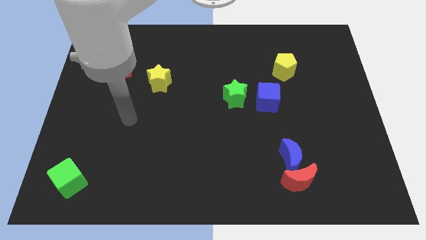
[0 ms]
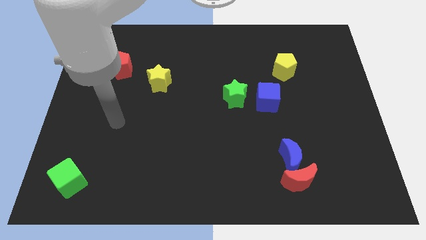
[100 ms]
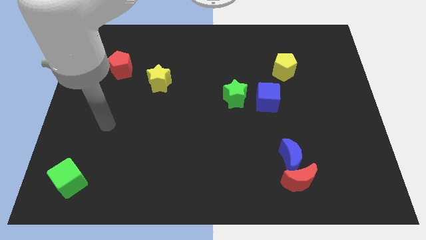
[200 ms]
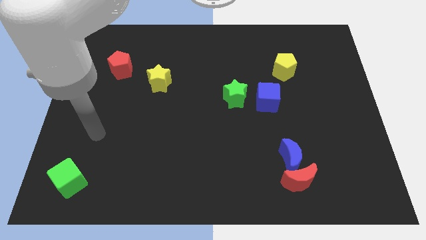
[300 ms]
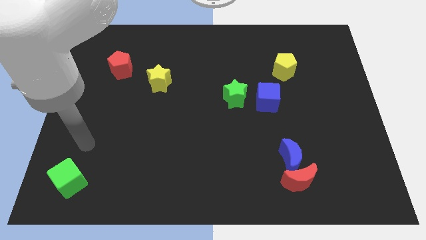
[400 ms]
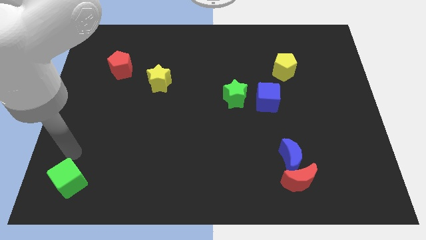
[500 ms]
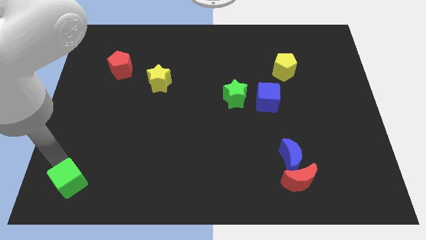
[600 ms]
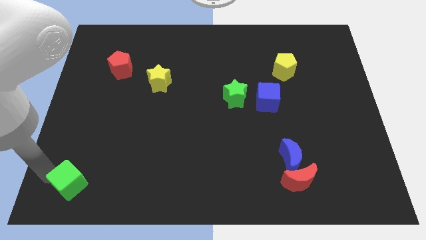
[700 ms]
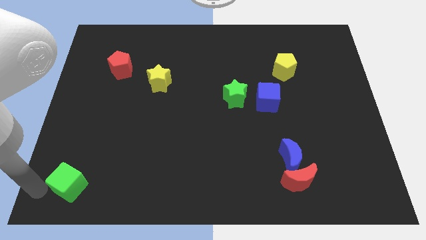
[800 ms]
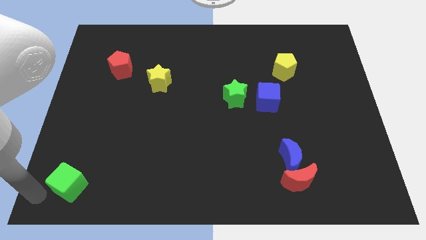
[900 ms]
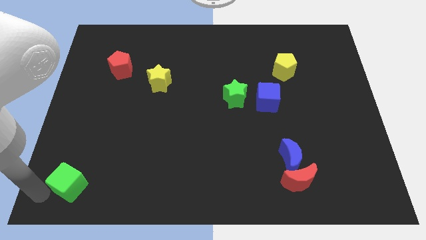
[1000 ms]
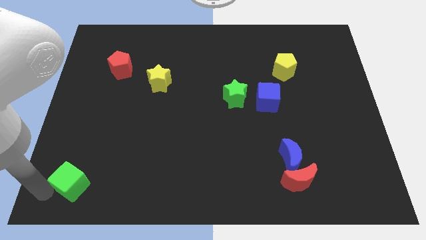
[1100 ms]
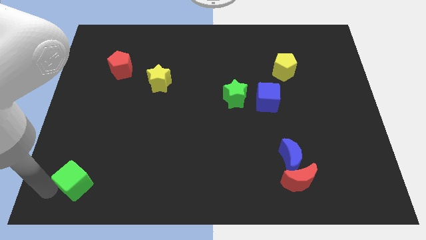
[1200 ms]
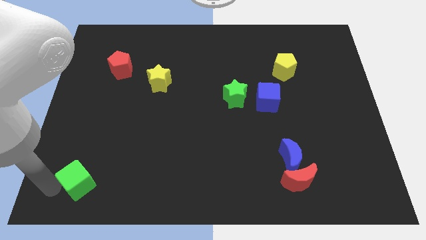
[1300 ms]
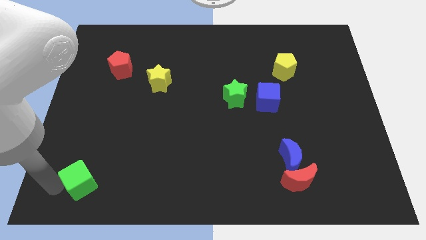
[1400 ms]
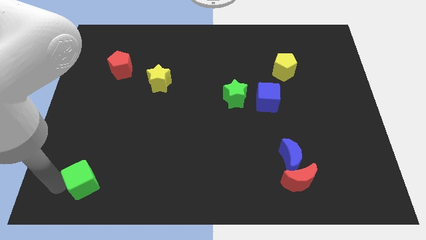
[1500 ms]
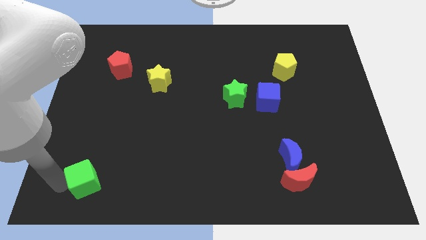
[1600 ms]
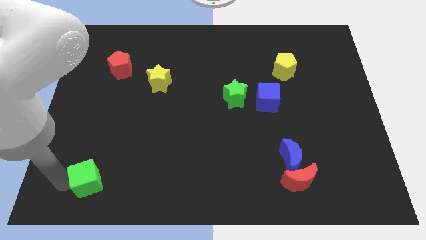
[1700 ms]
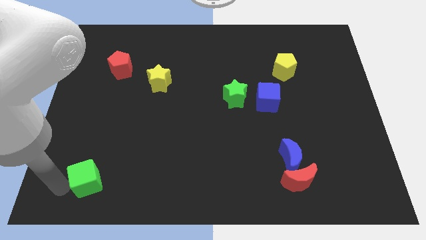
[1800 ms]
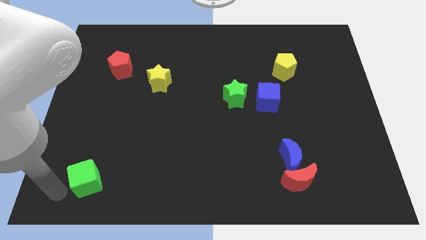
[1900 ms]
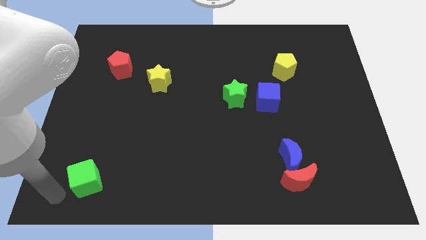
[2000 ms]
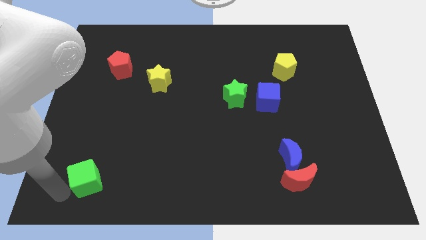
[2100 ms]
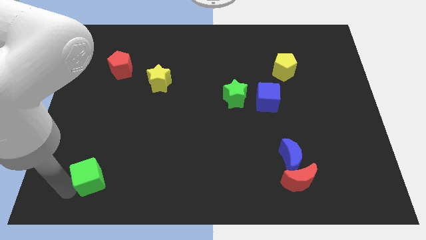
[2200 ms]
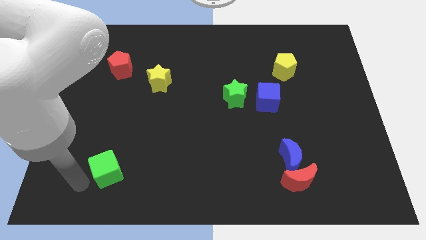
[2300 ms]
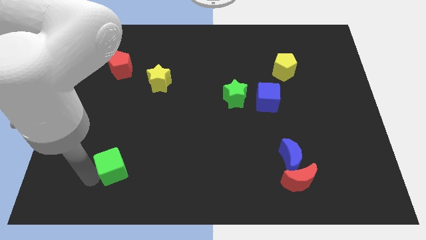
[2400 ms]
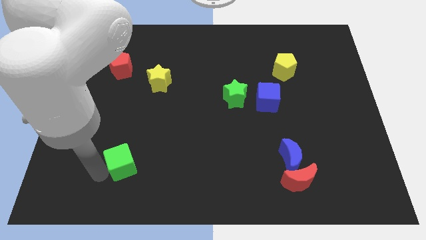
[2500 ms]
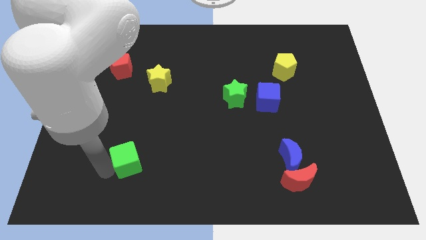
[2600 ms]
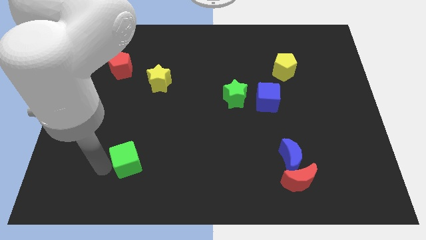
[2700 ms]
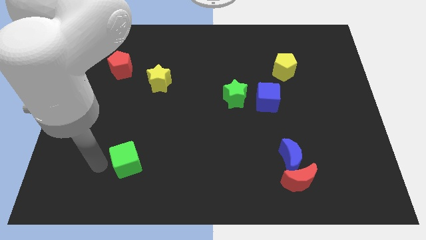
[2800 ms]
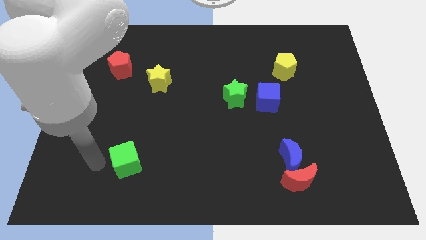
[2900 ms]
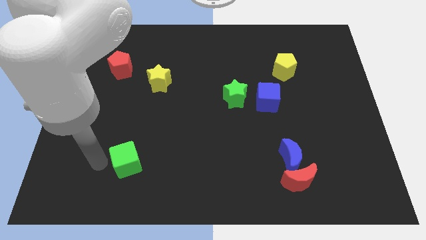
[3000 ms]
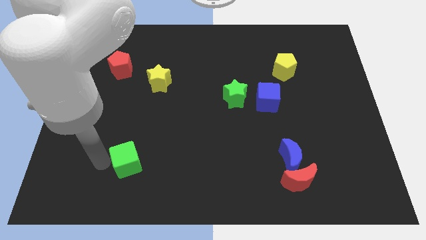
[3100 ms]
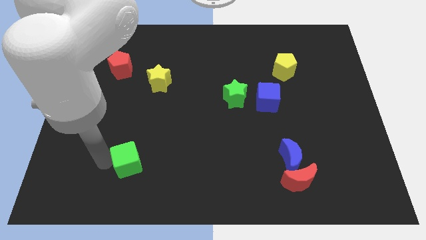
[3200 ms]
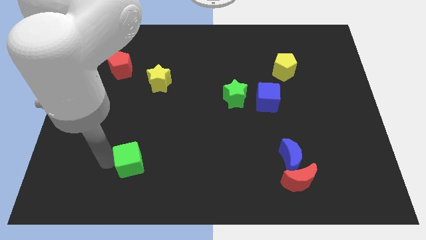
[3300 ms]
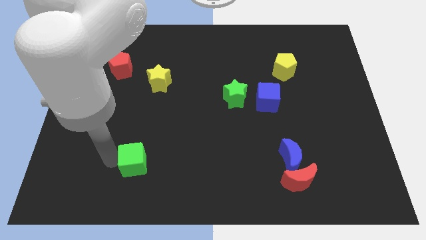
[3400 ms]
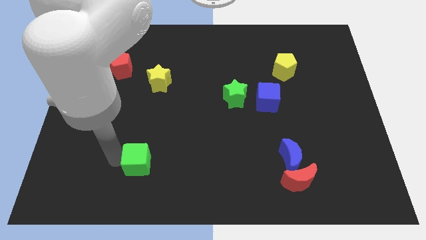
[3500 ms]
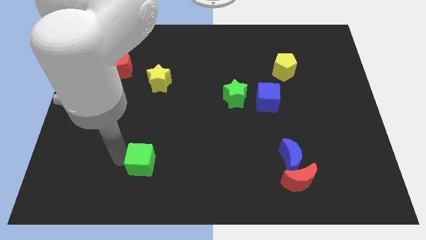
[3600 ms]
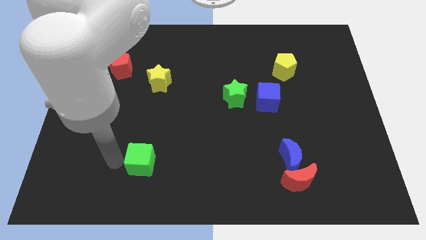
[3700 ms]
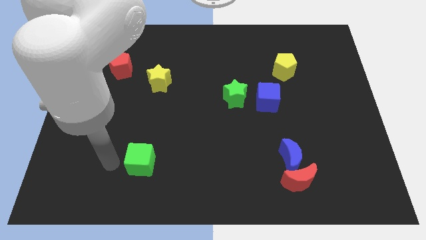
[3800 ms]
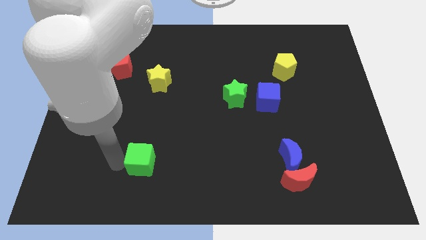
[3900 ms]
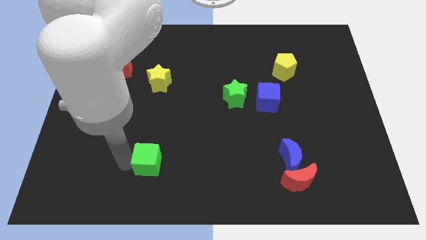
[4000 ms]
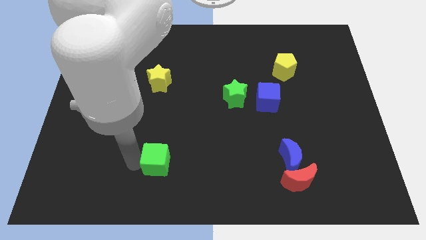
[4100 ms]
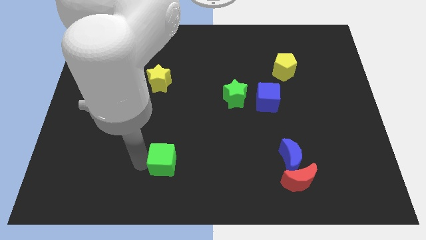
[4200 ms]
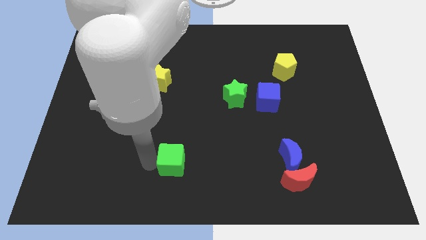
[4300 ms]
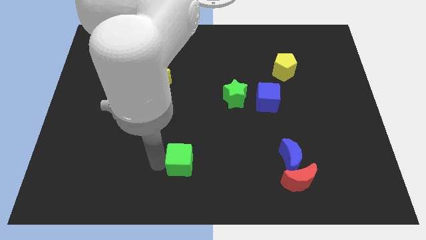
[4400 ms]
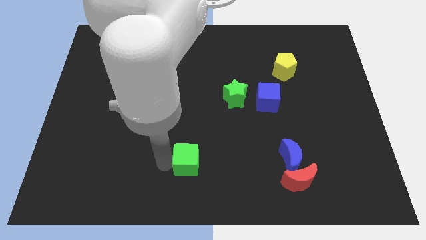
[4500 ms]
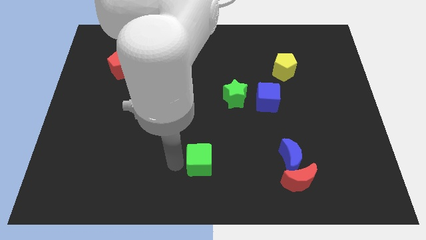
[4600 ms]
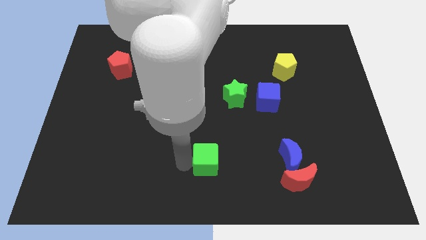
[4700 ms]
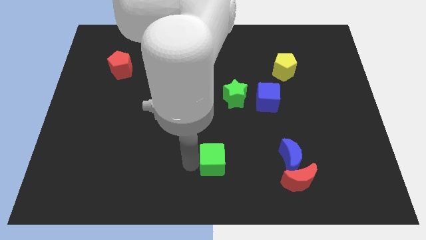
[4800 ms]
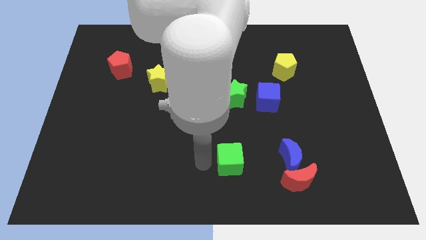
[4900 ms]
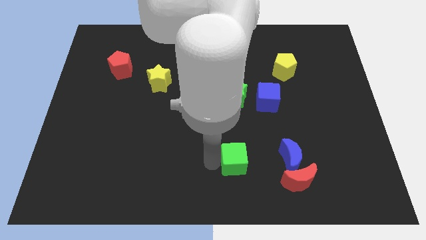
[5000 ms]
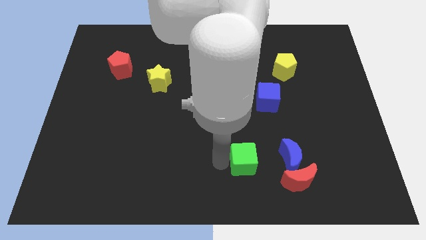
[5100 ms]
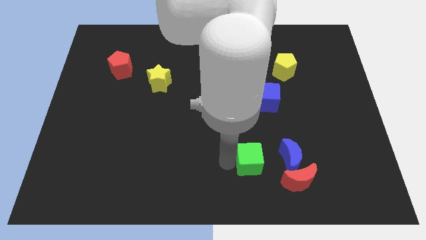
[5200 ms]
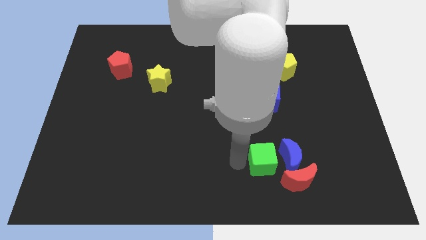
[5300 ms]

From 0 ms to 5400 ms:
move the green cube close to the blue moon

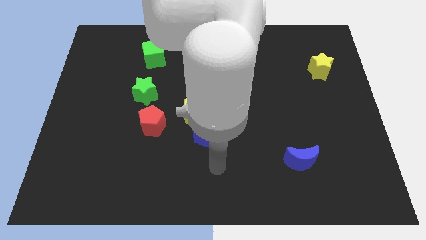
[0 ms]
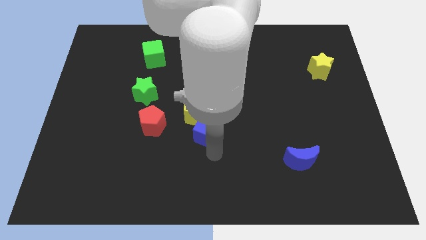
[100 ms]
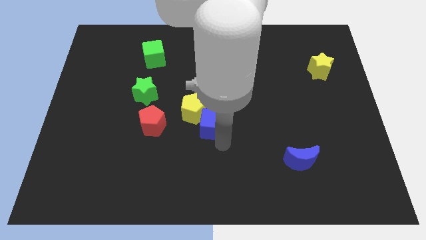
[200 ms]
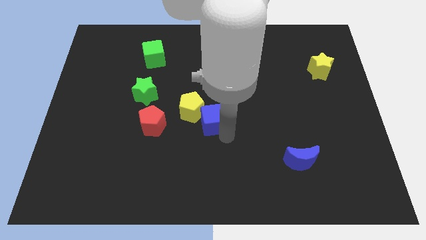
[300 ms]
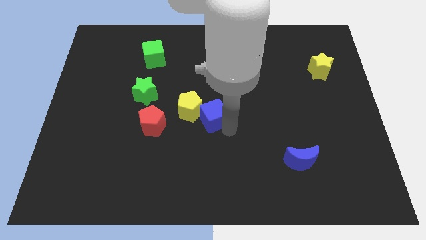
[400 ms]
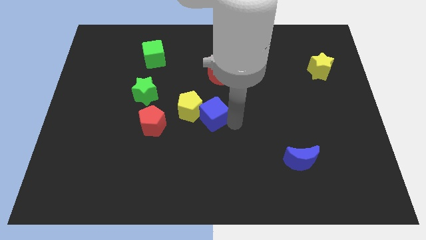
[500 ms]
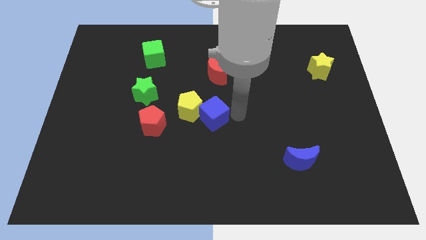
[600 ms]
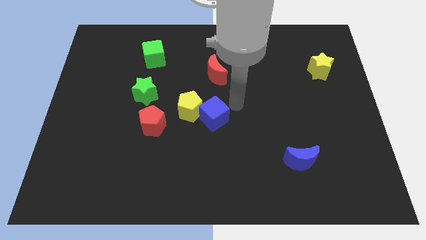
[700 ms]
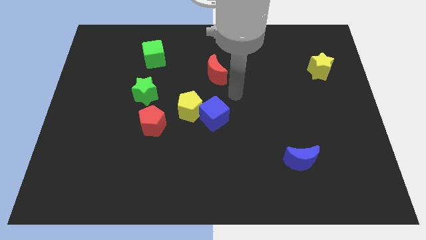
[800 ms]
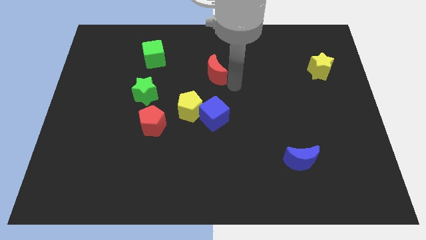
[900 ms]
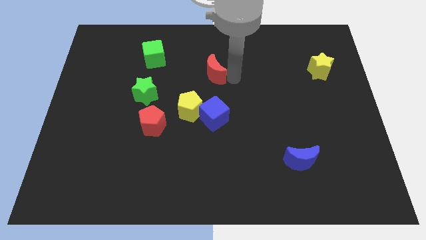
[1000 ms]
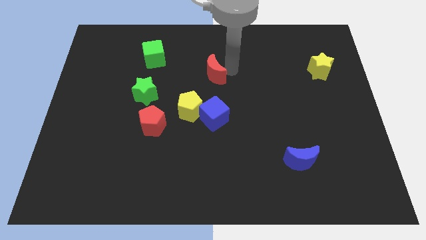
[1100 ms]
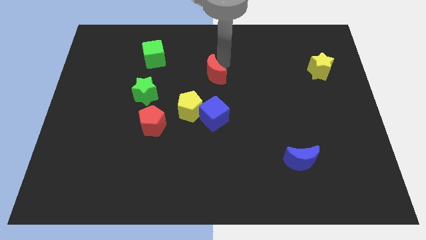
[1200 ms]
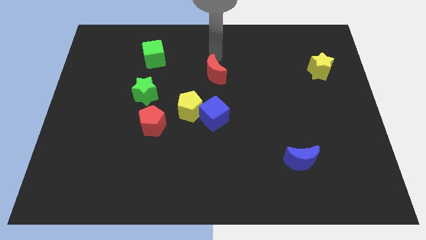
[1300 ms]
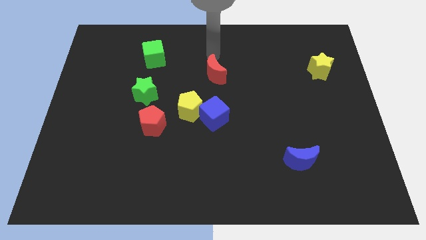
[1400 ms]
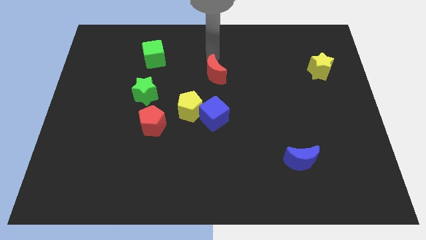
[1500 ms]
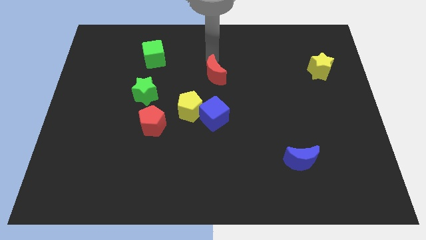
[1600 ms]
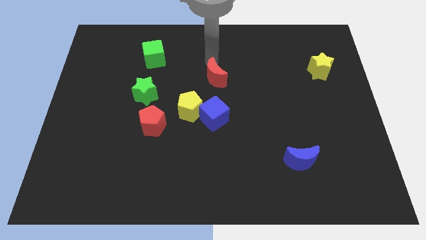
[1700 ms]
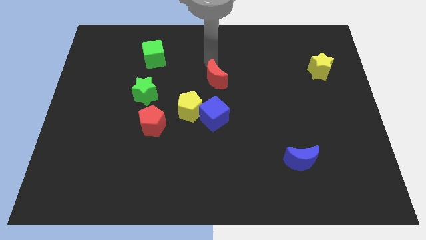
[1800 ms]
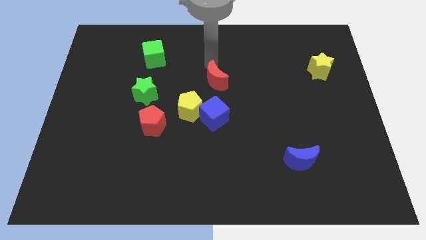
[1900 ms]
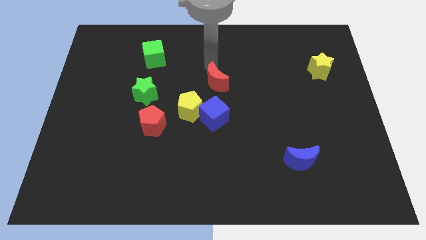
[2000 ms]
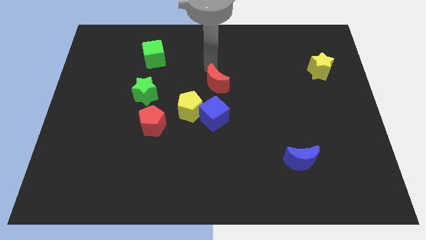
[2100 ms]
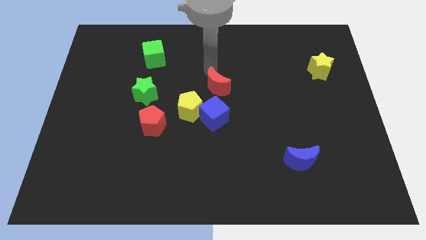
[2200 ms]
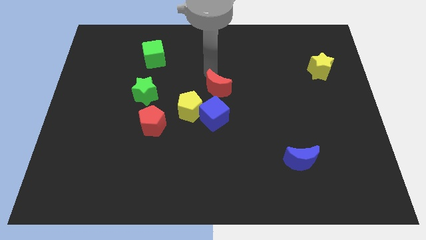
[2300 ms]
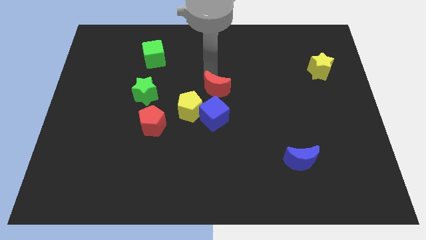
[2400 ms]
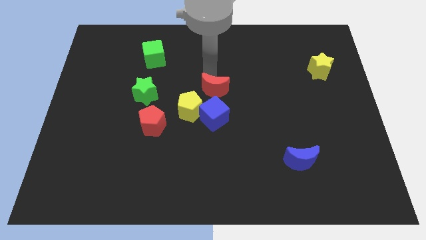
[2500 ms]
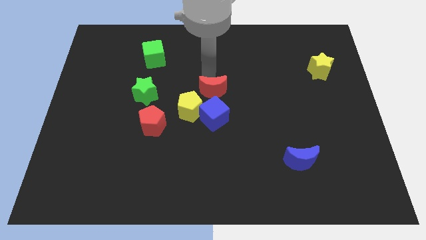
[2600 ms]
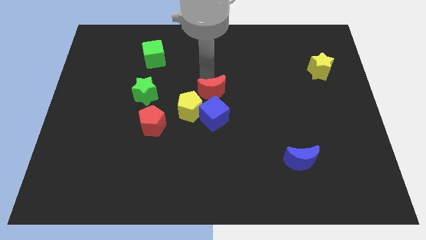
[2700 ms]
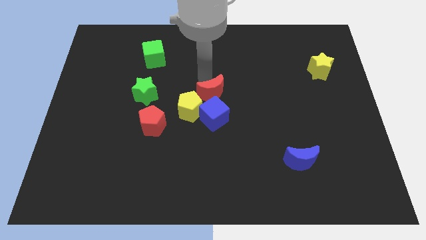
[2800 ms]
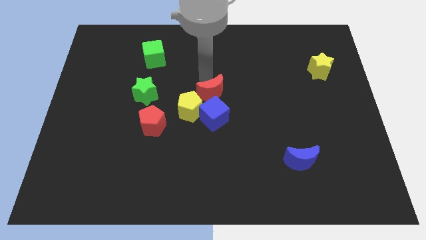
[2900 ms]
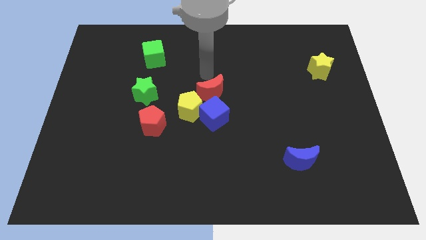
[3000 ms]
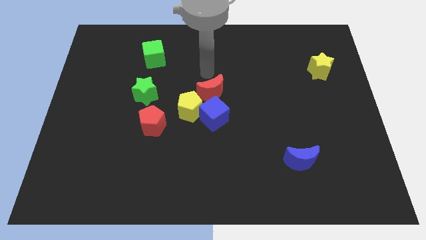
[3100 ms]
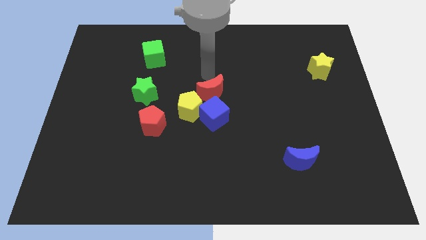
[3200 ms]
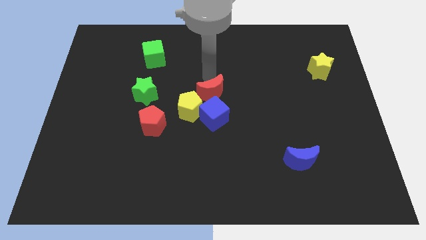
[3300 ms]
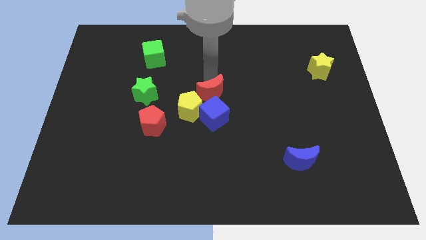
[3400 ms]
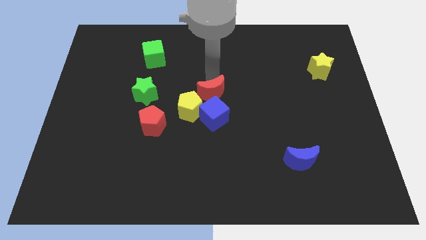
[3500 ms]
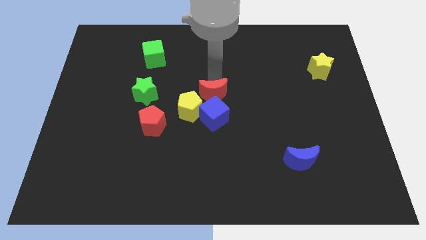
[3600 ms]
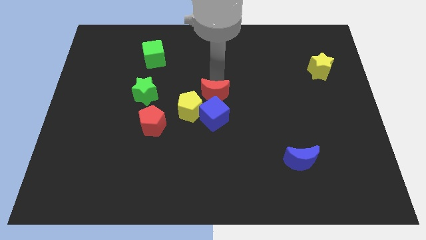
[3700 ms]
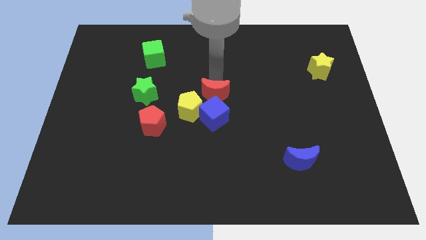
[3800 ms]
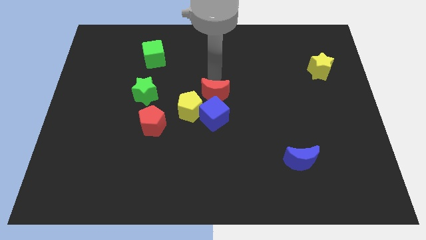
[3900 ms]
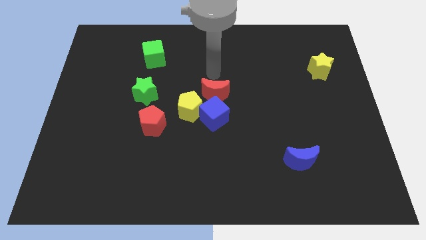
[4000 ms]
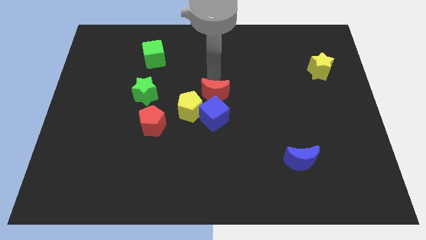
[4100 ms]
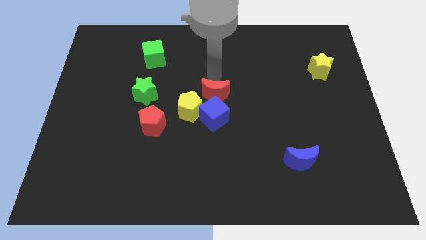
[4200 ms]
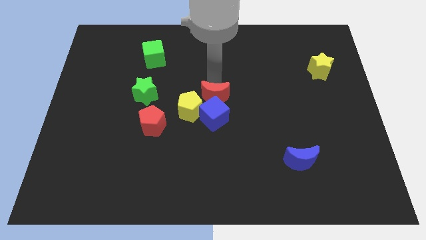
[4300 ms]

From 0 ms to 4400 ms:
move the red moon next to the blue cube
